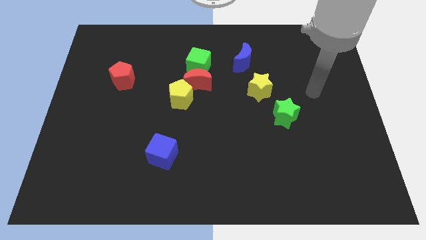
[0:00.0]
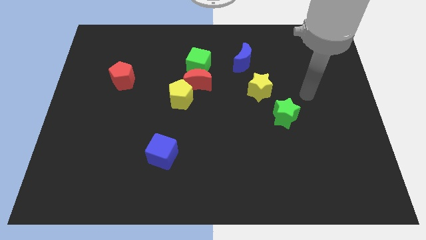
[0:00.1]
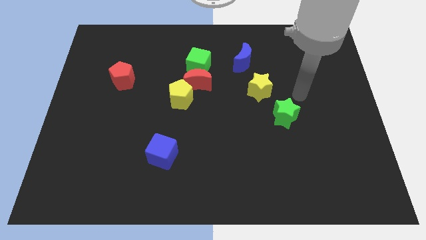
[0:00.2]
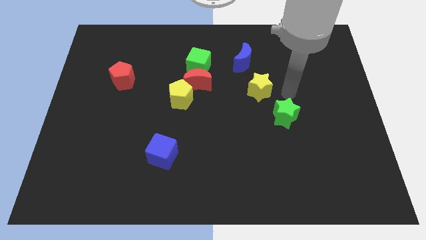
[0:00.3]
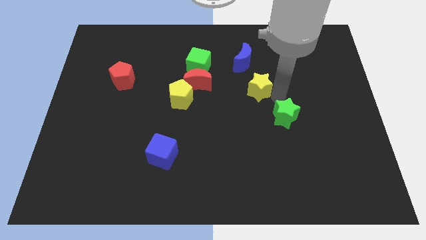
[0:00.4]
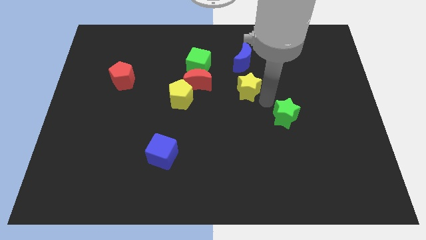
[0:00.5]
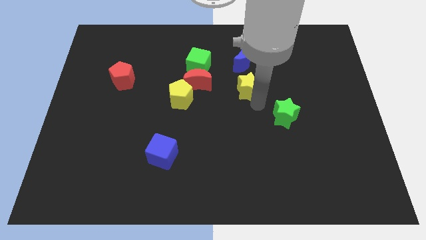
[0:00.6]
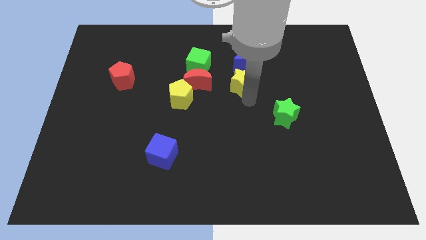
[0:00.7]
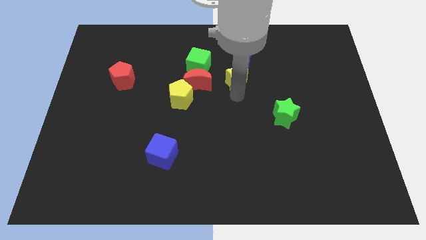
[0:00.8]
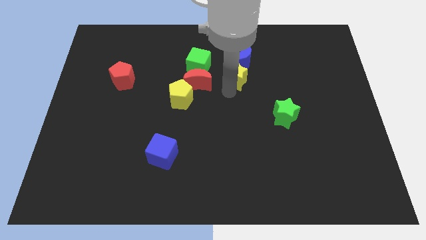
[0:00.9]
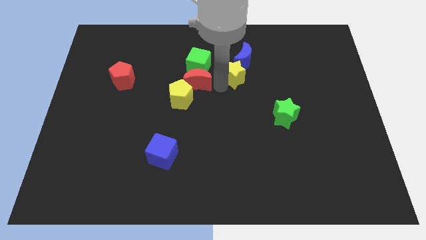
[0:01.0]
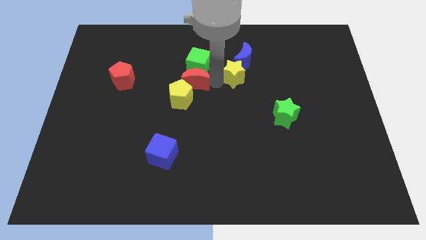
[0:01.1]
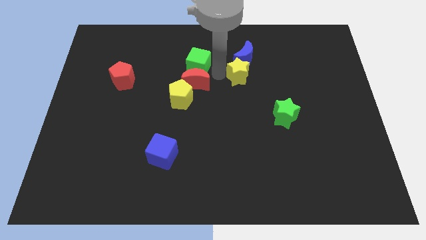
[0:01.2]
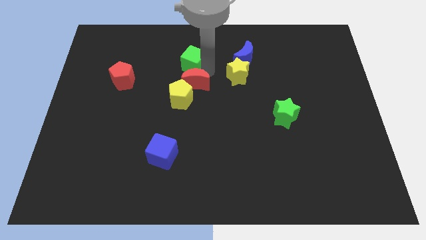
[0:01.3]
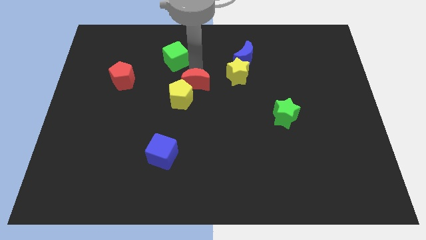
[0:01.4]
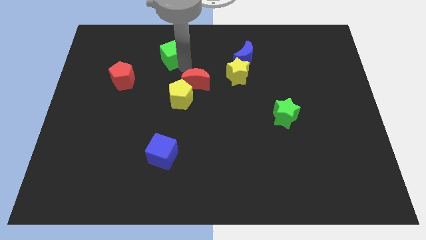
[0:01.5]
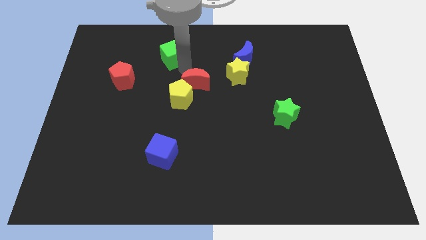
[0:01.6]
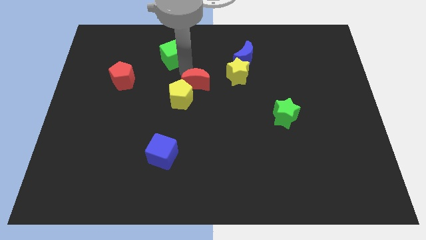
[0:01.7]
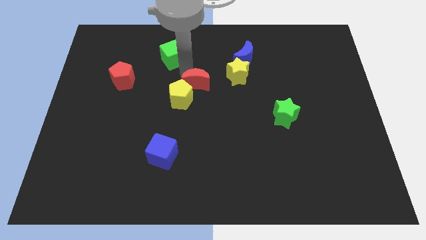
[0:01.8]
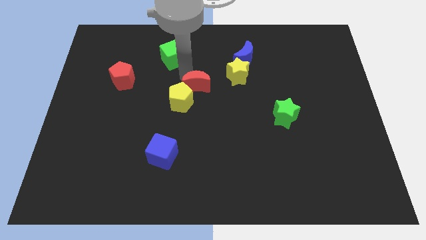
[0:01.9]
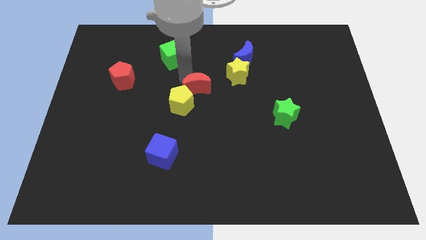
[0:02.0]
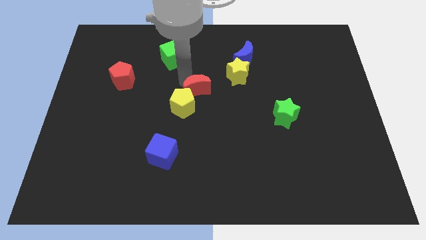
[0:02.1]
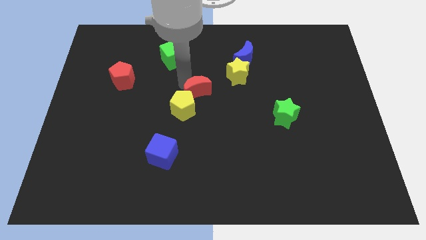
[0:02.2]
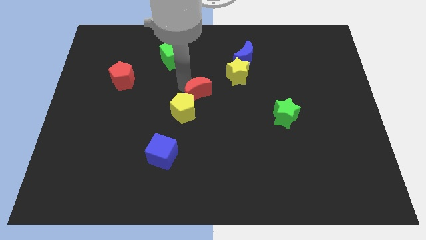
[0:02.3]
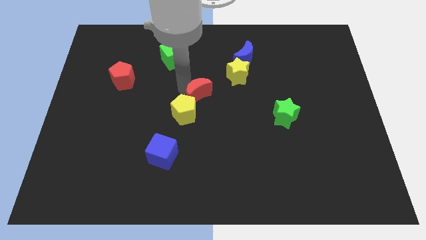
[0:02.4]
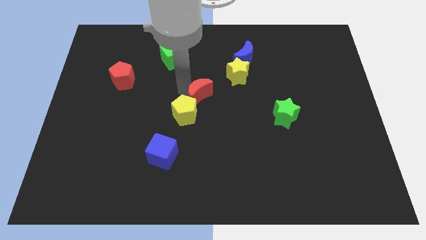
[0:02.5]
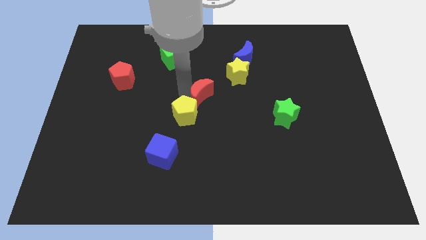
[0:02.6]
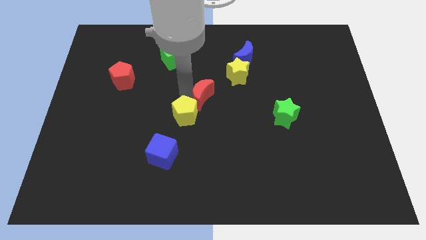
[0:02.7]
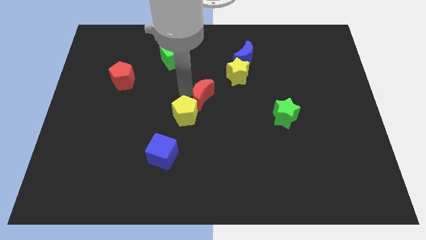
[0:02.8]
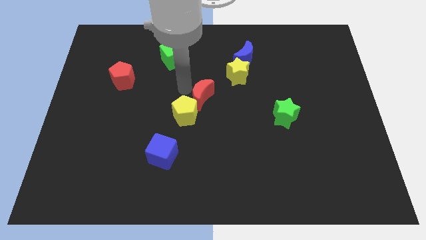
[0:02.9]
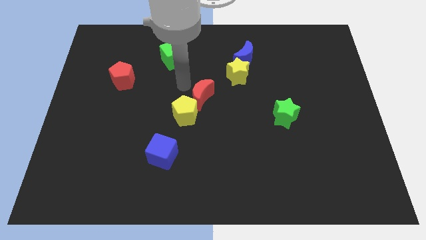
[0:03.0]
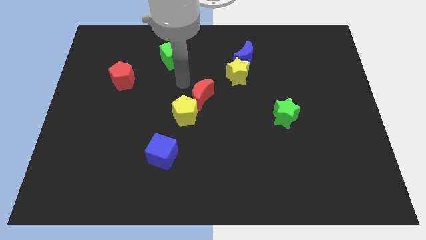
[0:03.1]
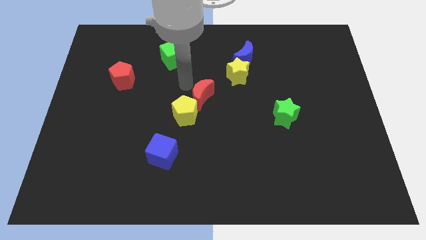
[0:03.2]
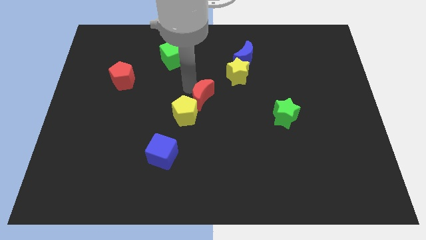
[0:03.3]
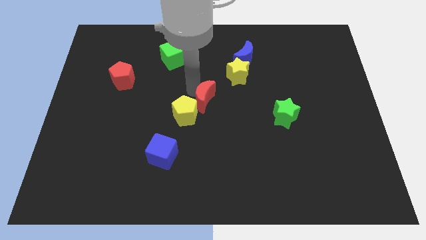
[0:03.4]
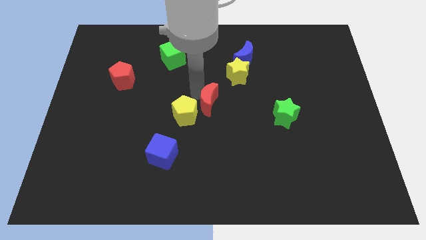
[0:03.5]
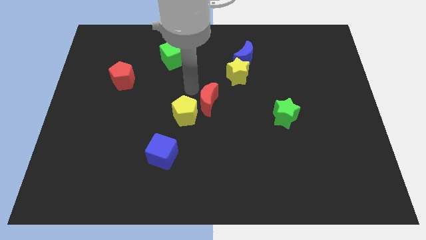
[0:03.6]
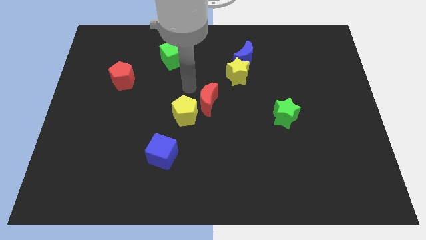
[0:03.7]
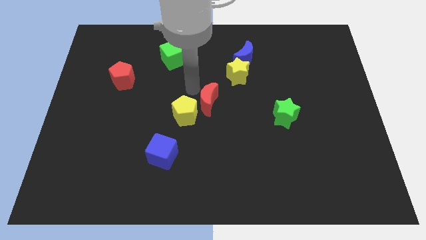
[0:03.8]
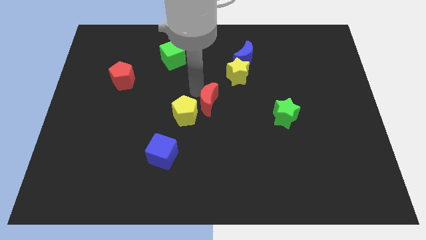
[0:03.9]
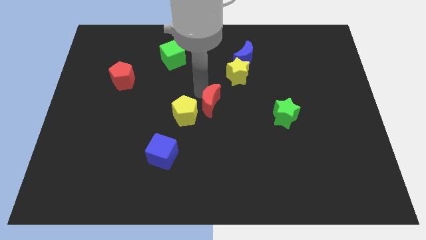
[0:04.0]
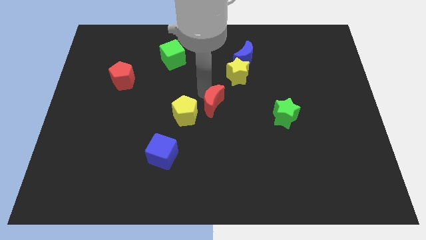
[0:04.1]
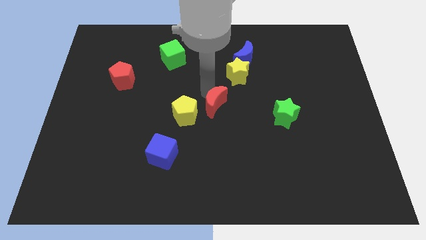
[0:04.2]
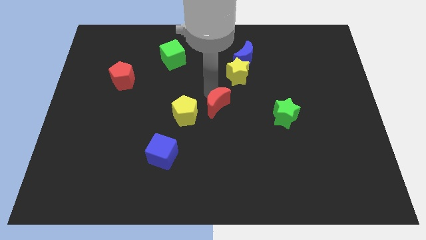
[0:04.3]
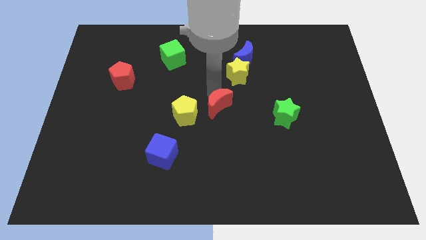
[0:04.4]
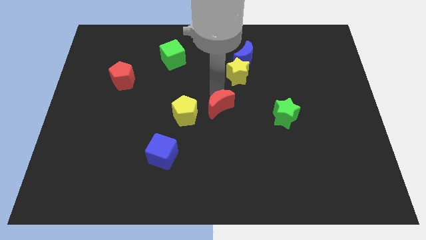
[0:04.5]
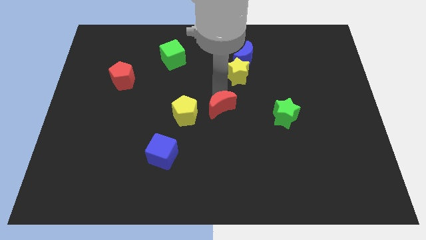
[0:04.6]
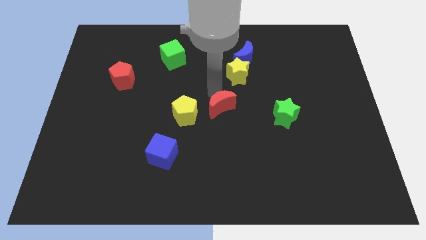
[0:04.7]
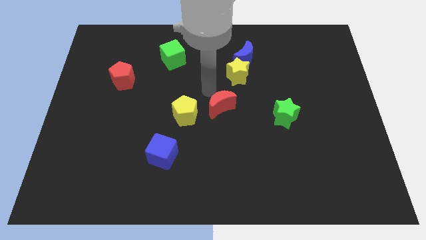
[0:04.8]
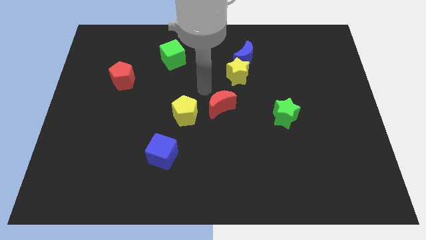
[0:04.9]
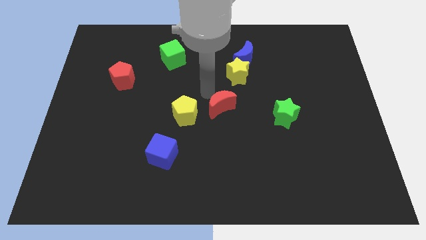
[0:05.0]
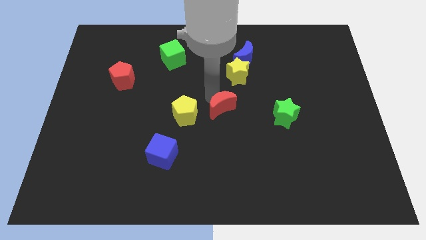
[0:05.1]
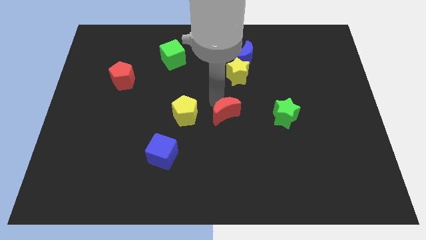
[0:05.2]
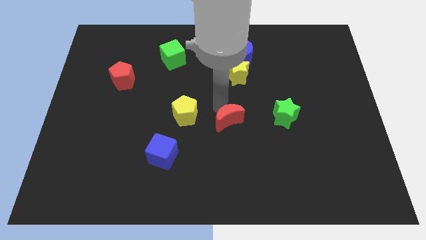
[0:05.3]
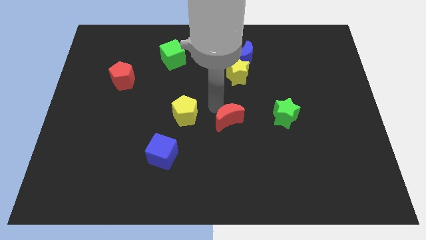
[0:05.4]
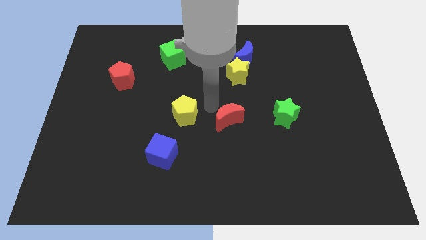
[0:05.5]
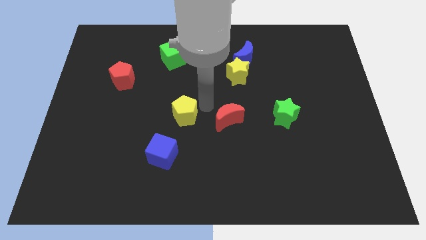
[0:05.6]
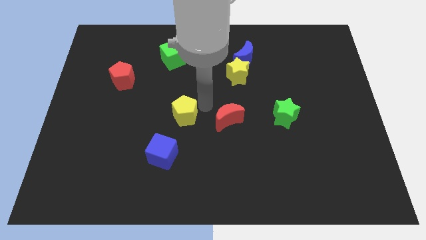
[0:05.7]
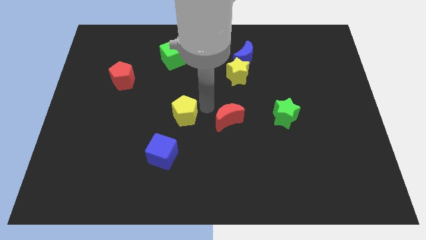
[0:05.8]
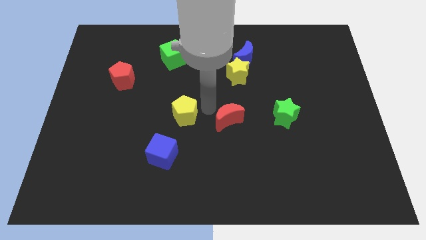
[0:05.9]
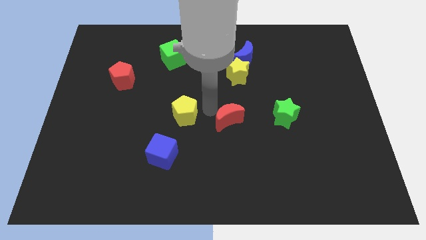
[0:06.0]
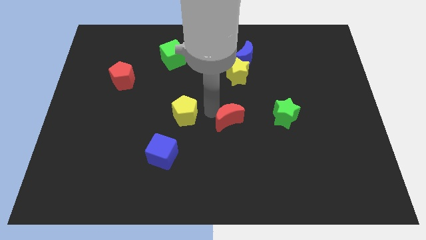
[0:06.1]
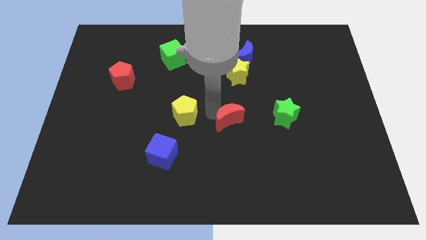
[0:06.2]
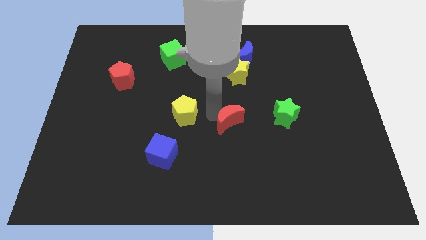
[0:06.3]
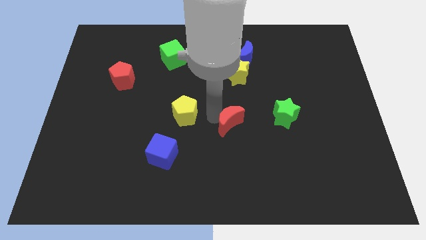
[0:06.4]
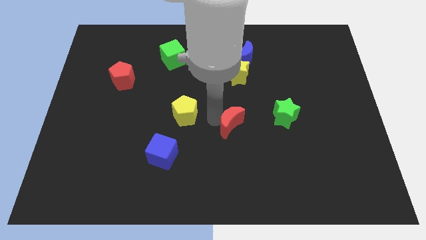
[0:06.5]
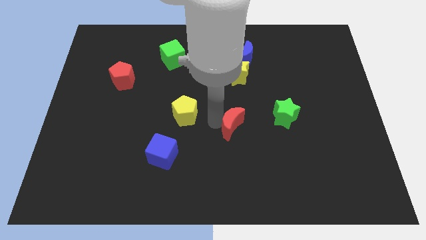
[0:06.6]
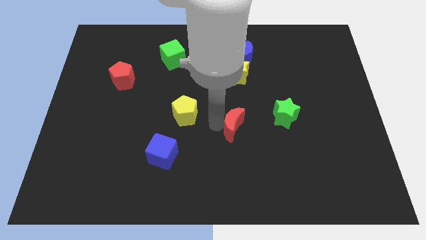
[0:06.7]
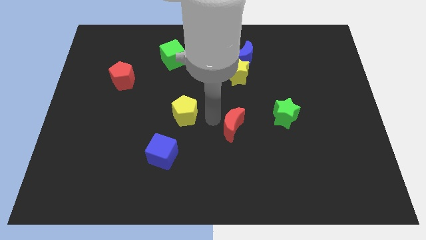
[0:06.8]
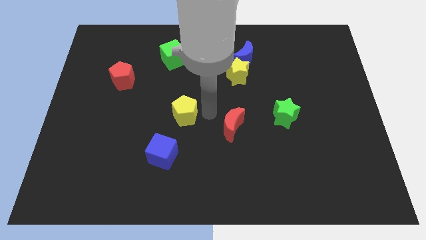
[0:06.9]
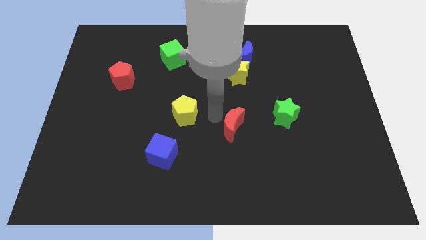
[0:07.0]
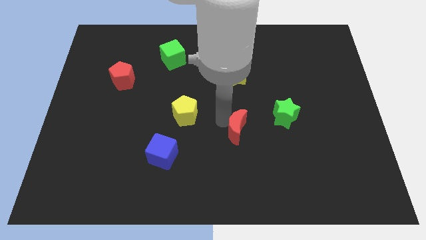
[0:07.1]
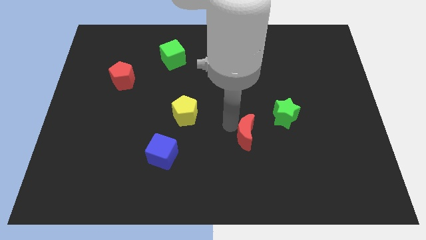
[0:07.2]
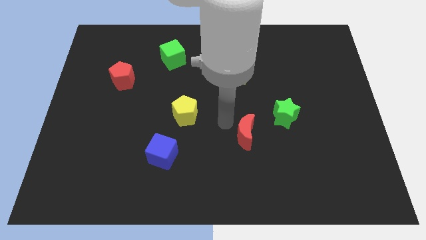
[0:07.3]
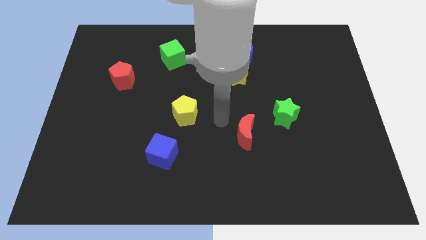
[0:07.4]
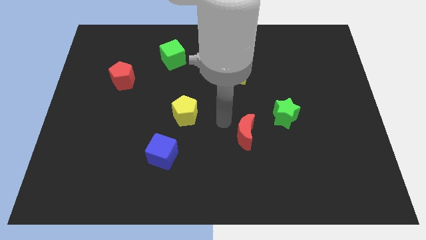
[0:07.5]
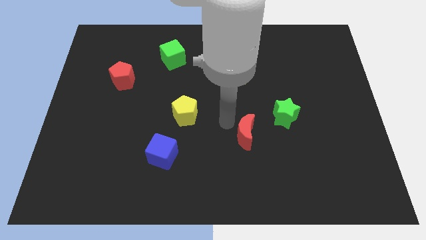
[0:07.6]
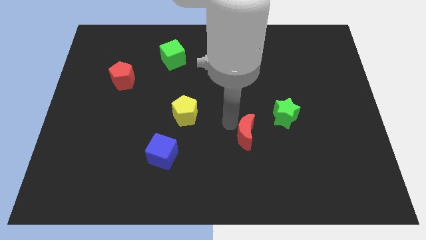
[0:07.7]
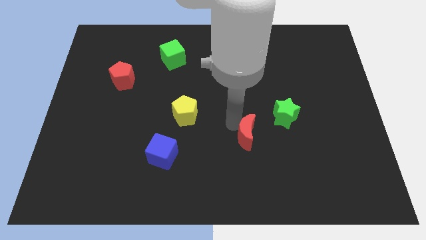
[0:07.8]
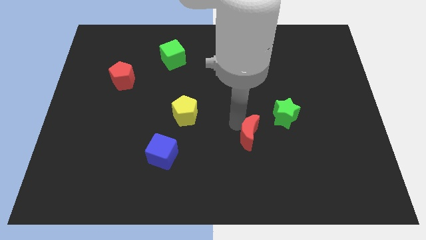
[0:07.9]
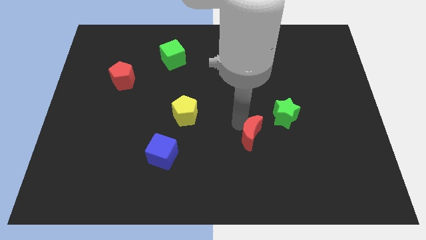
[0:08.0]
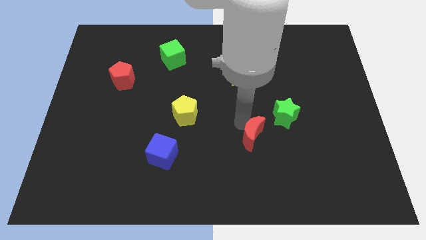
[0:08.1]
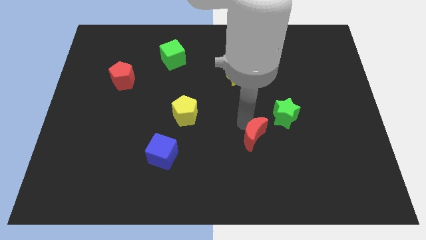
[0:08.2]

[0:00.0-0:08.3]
push the red moon diagonally down and right
